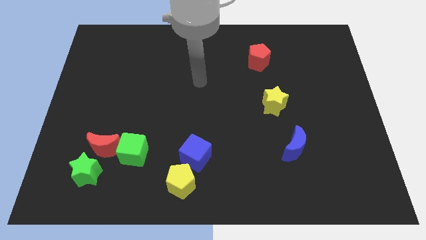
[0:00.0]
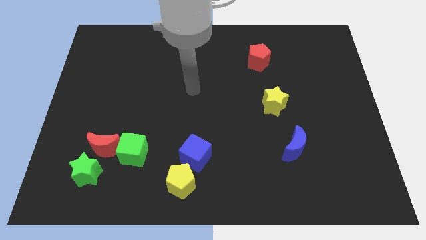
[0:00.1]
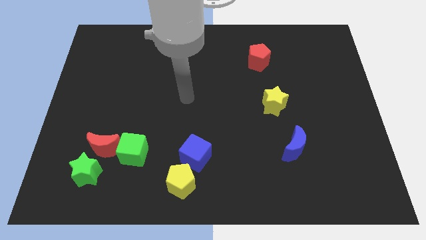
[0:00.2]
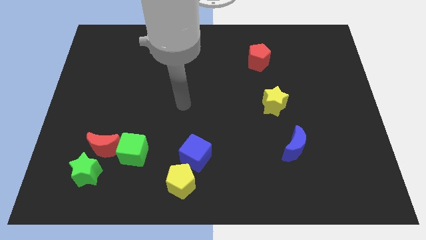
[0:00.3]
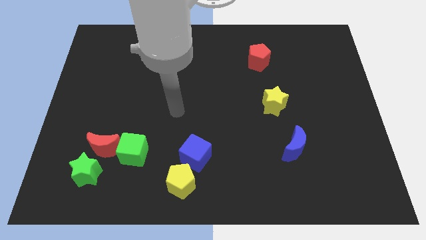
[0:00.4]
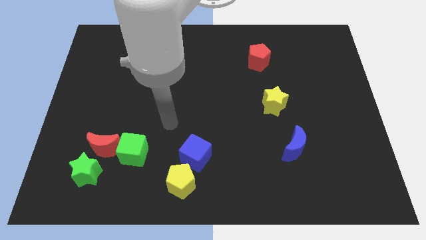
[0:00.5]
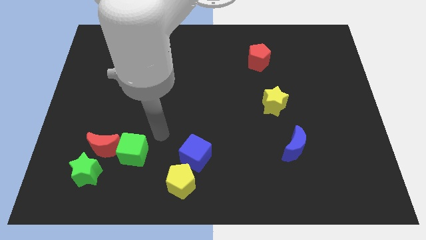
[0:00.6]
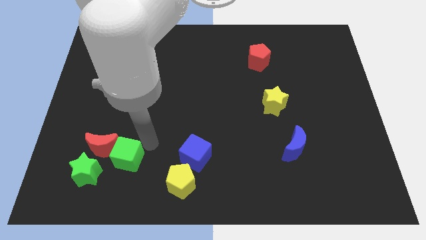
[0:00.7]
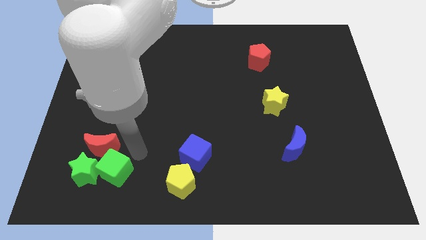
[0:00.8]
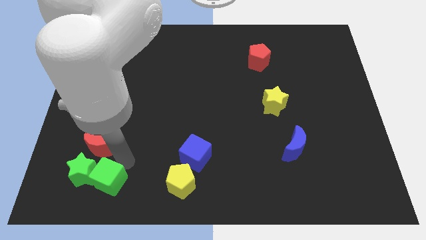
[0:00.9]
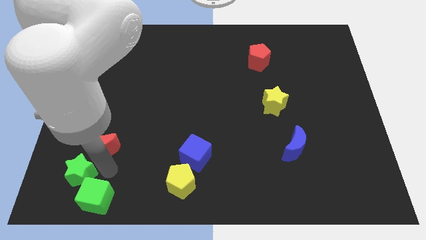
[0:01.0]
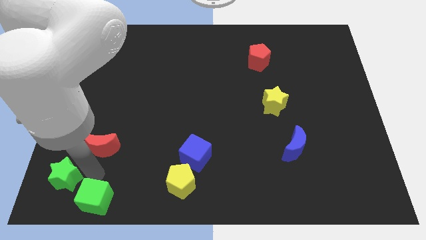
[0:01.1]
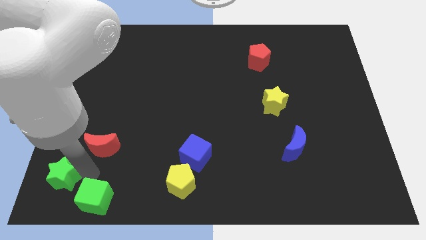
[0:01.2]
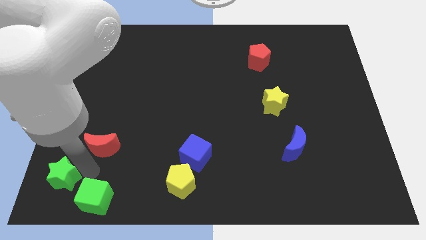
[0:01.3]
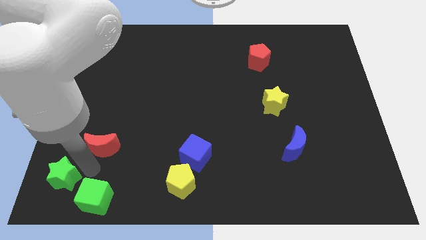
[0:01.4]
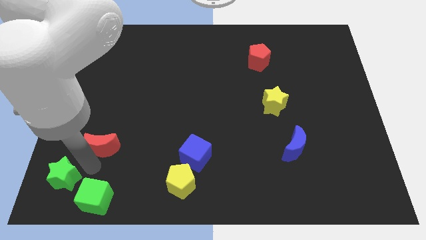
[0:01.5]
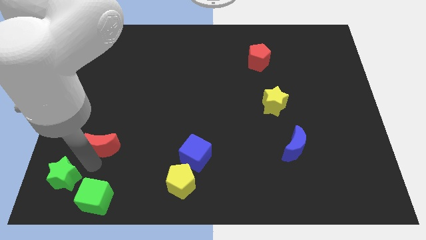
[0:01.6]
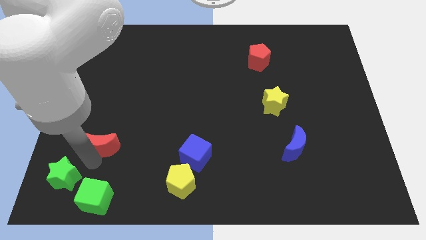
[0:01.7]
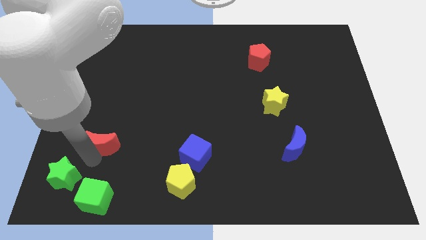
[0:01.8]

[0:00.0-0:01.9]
separate the red moon from the green cube and green star

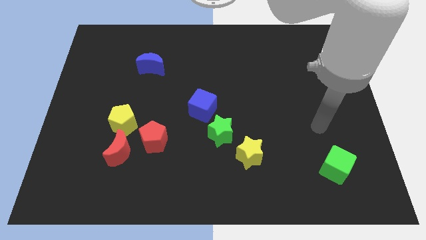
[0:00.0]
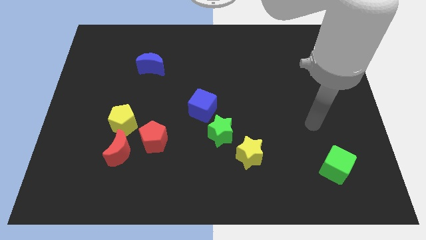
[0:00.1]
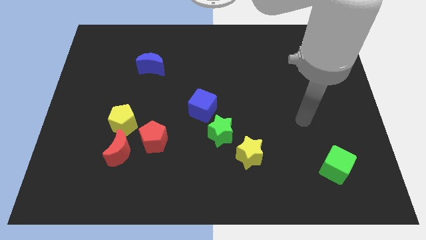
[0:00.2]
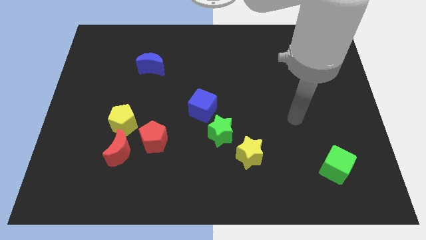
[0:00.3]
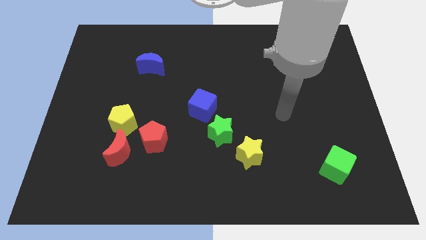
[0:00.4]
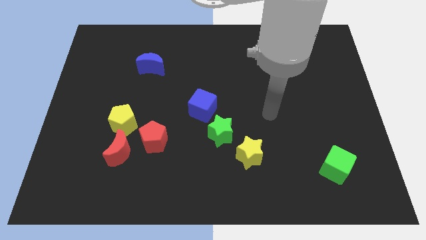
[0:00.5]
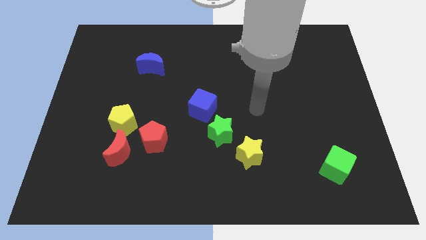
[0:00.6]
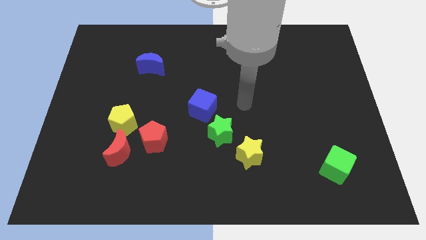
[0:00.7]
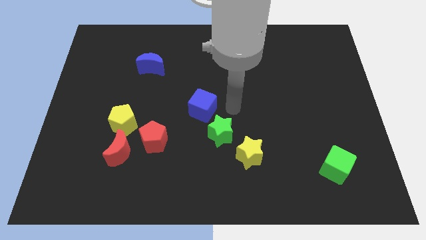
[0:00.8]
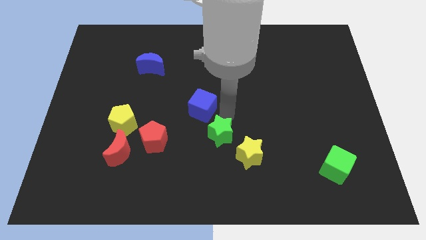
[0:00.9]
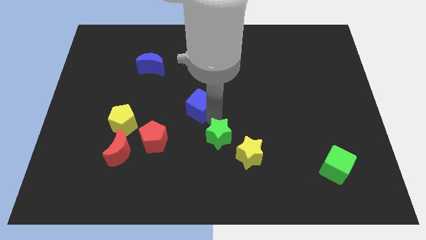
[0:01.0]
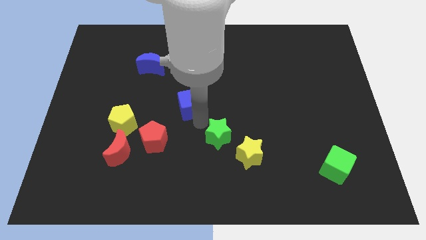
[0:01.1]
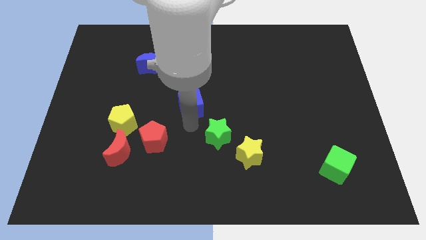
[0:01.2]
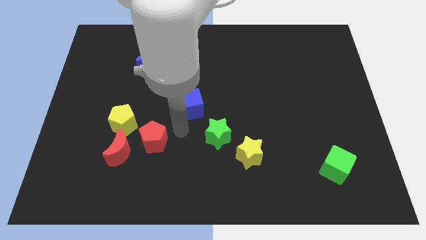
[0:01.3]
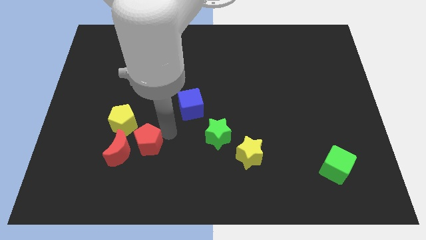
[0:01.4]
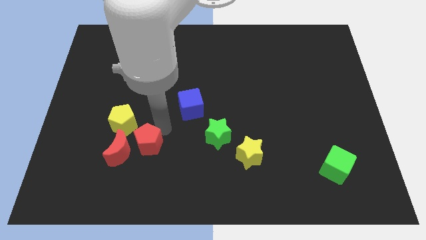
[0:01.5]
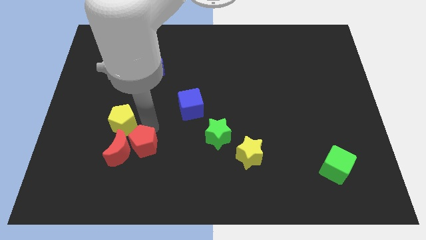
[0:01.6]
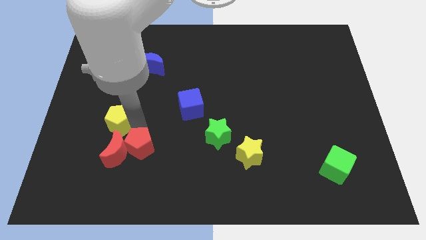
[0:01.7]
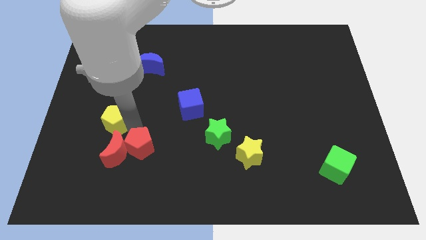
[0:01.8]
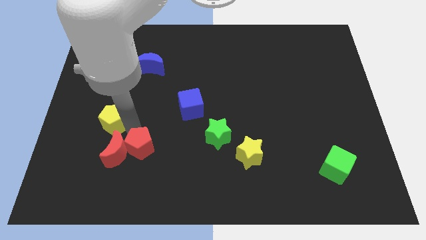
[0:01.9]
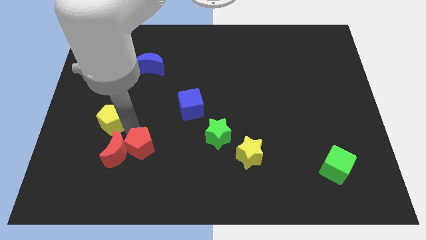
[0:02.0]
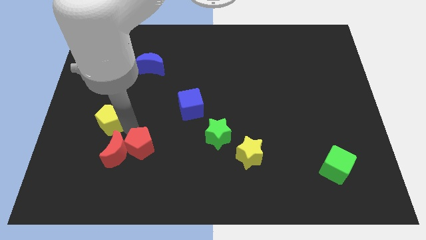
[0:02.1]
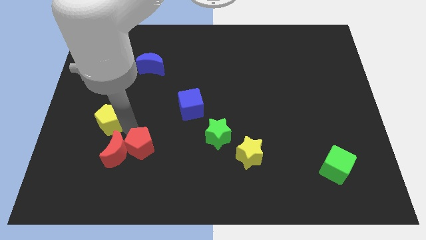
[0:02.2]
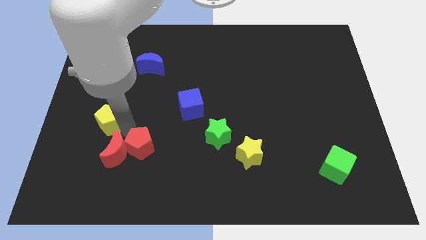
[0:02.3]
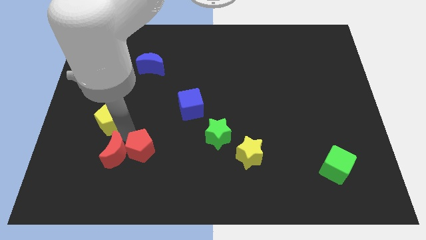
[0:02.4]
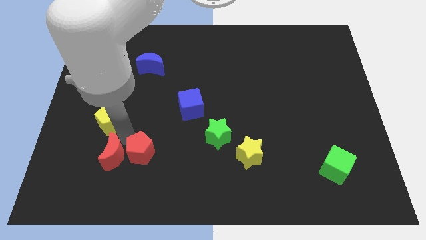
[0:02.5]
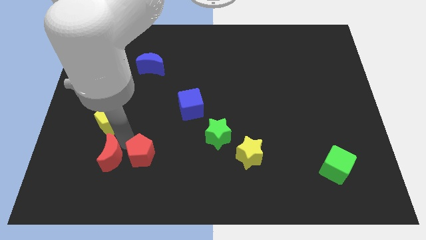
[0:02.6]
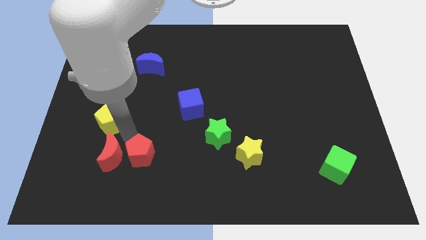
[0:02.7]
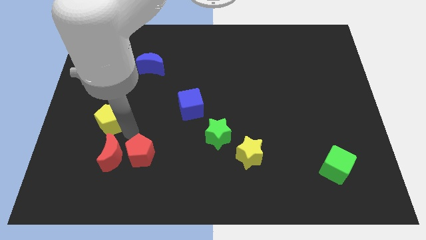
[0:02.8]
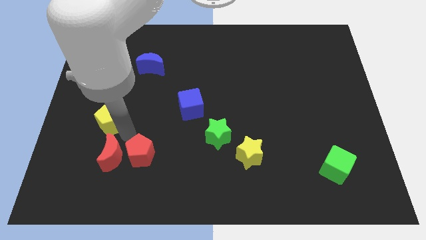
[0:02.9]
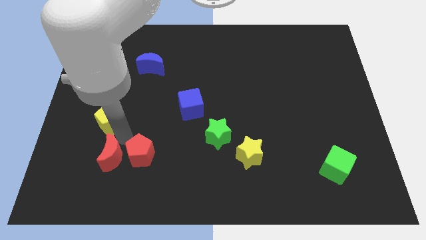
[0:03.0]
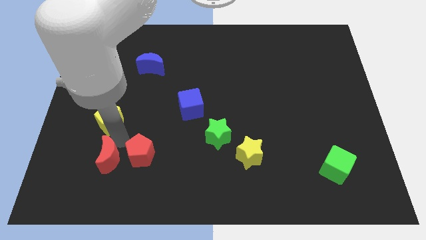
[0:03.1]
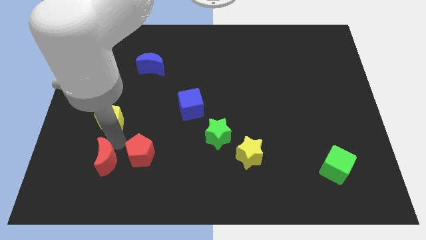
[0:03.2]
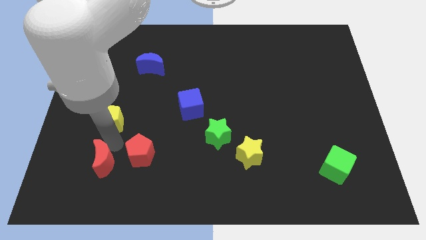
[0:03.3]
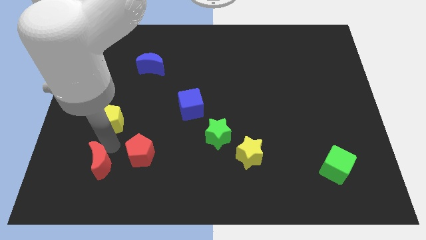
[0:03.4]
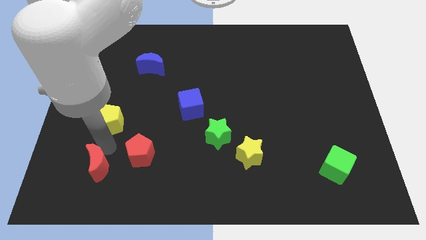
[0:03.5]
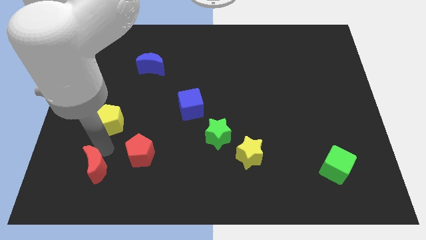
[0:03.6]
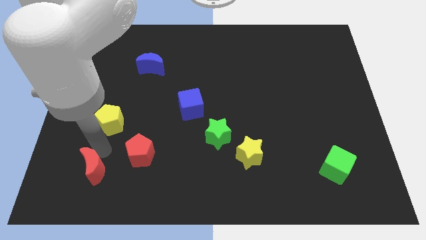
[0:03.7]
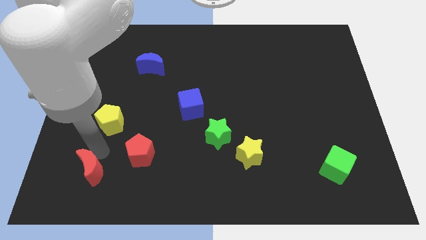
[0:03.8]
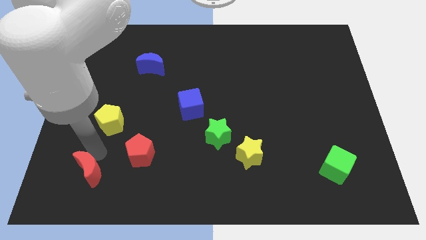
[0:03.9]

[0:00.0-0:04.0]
pull the red moon apart from the red pentagon and yellow pentagon

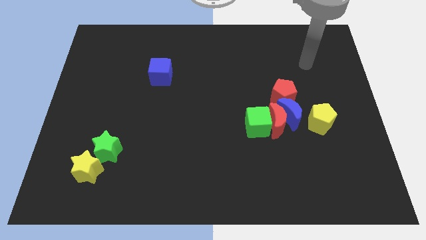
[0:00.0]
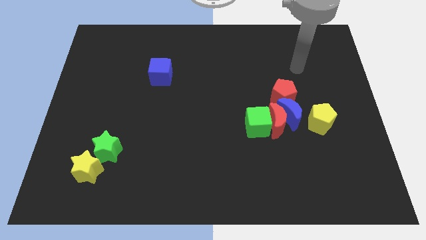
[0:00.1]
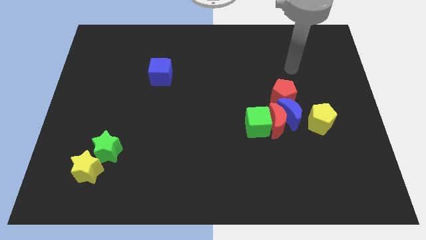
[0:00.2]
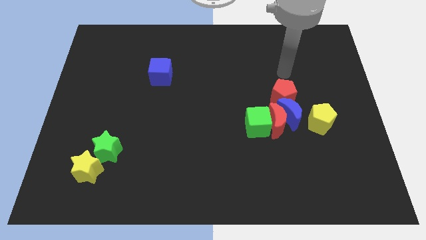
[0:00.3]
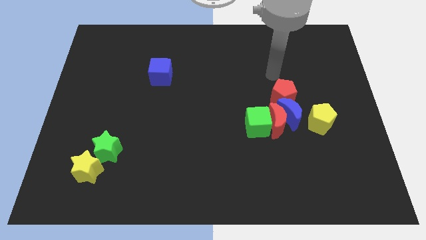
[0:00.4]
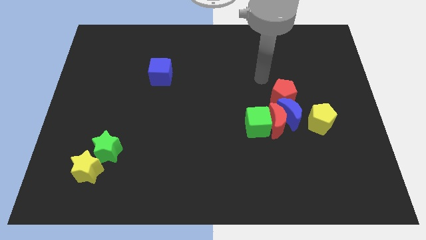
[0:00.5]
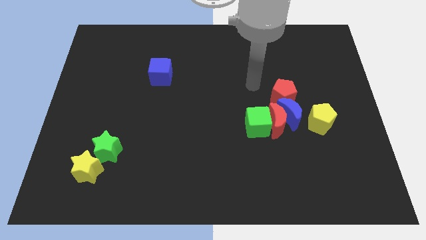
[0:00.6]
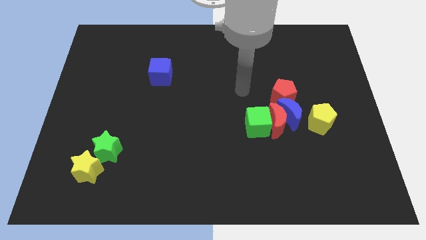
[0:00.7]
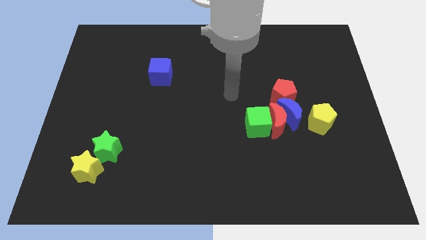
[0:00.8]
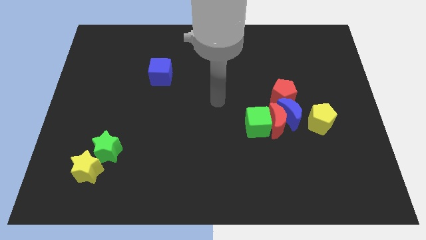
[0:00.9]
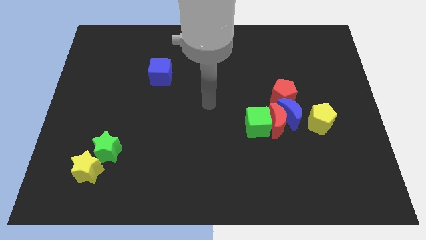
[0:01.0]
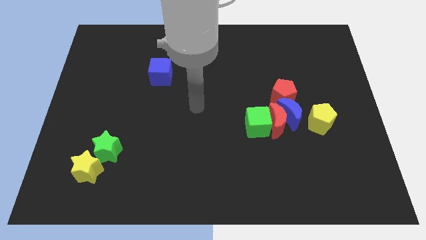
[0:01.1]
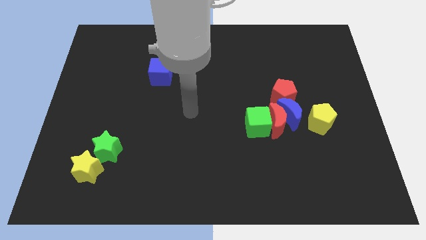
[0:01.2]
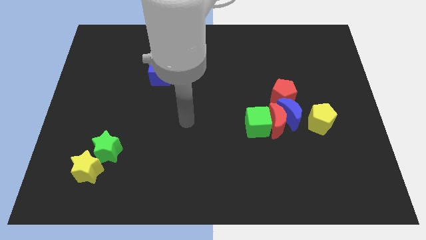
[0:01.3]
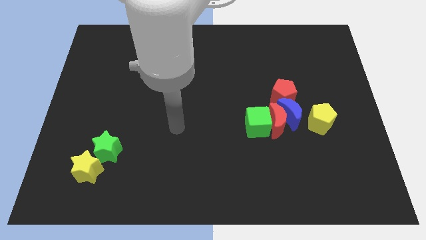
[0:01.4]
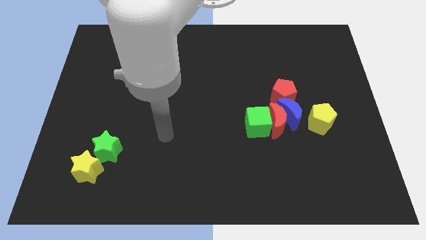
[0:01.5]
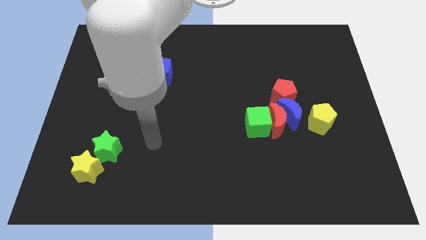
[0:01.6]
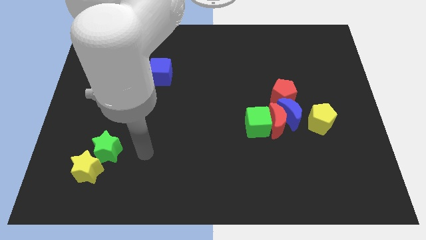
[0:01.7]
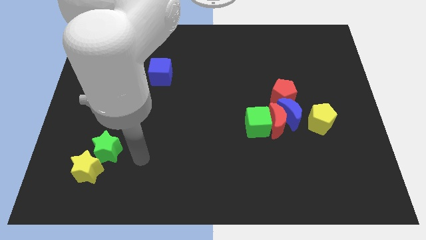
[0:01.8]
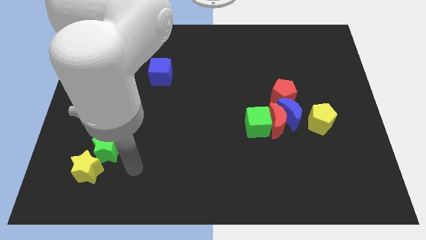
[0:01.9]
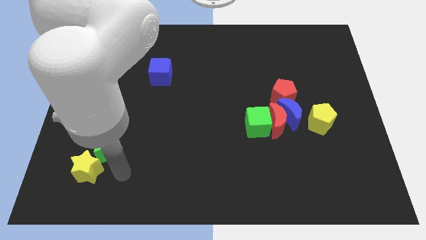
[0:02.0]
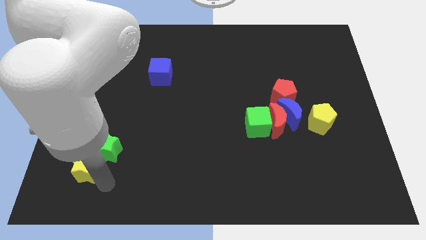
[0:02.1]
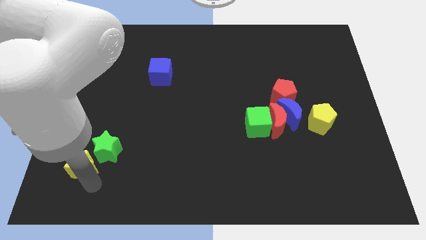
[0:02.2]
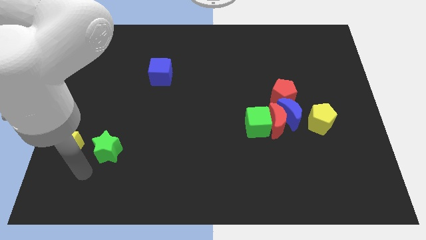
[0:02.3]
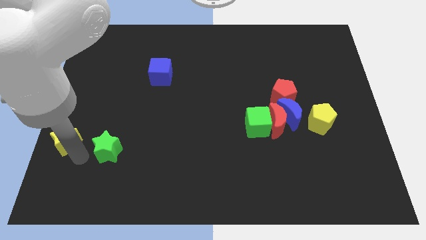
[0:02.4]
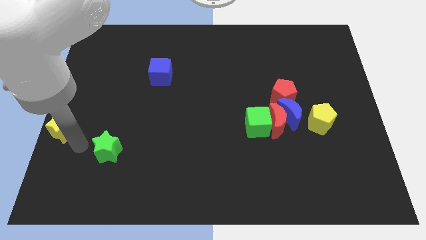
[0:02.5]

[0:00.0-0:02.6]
separate the green star from the yellow star

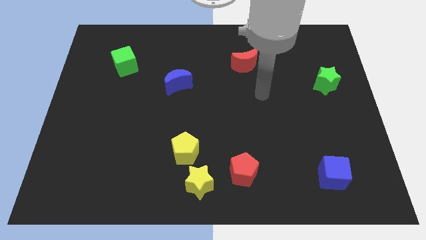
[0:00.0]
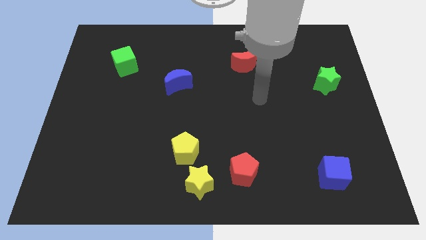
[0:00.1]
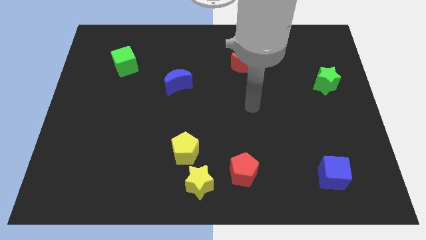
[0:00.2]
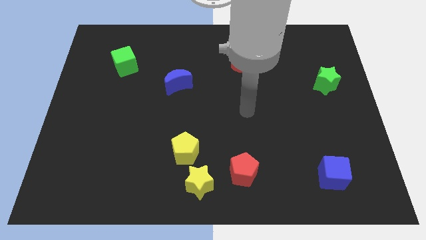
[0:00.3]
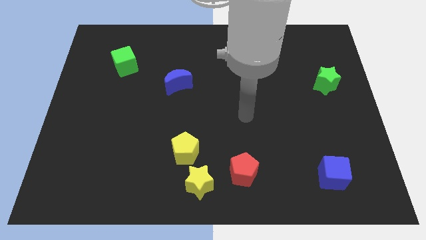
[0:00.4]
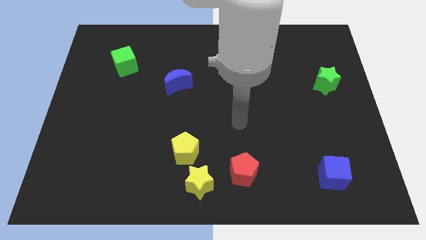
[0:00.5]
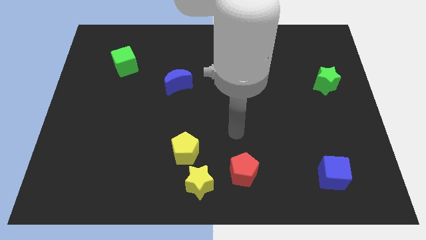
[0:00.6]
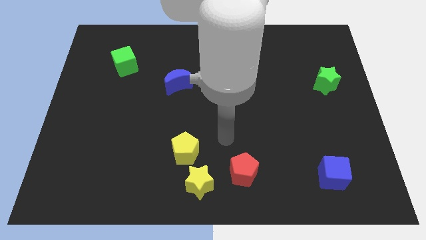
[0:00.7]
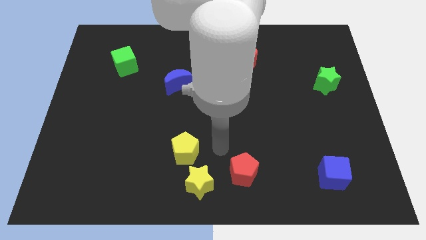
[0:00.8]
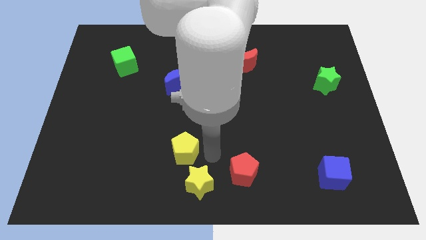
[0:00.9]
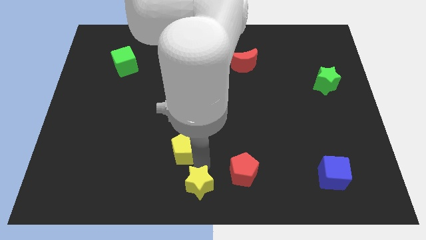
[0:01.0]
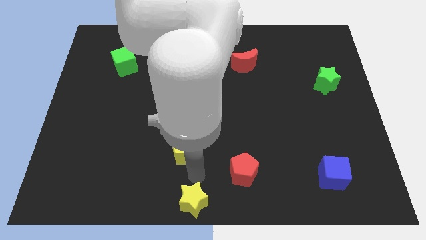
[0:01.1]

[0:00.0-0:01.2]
move the yellow pentagon away from the yellow star
